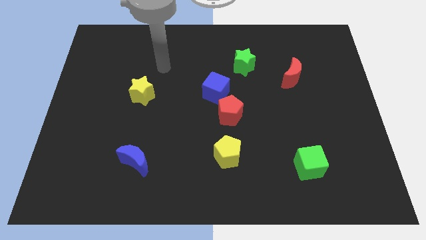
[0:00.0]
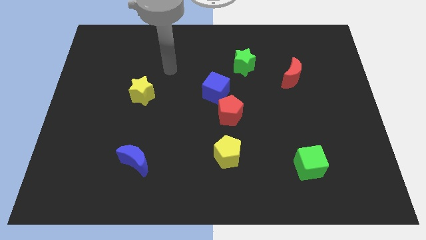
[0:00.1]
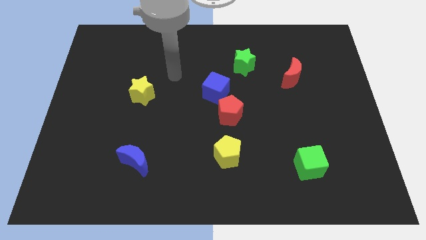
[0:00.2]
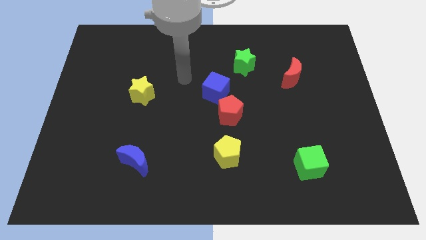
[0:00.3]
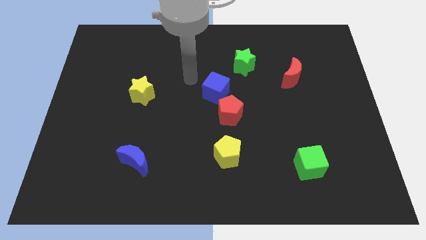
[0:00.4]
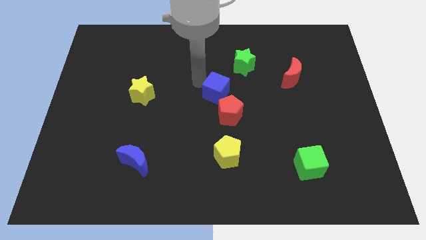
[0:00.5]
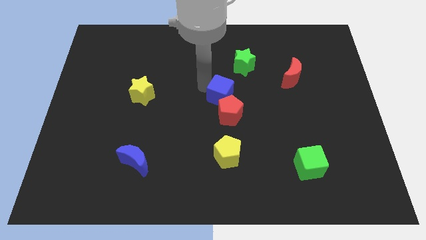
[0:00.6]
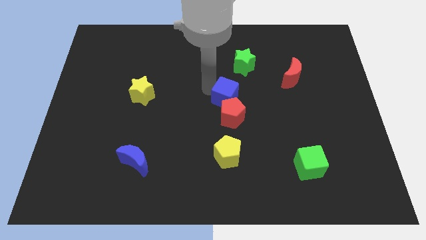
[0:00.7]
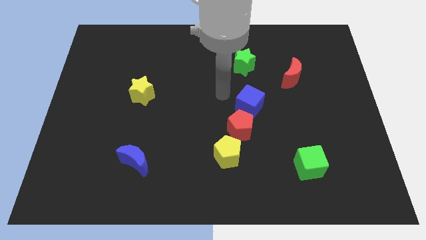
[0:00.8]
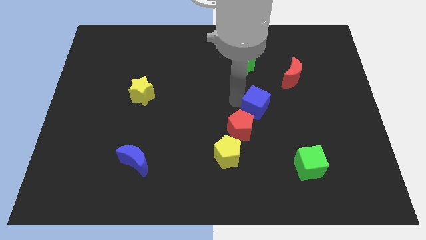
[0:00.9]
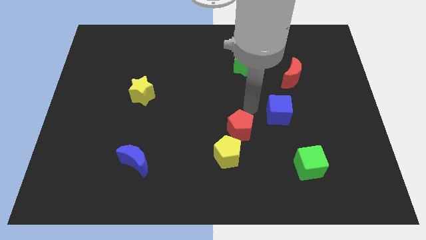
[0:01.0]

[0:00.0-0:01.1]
pull the red pentagon apart from the blue cube

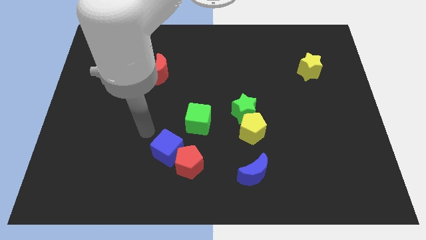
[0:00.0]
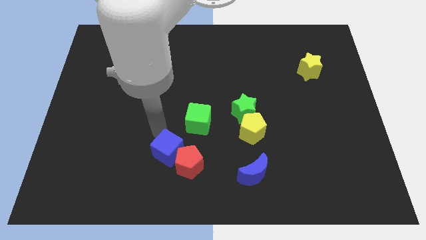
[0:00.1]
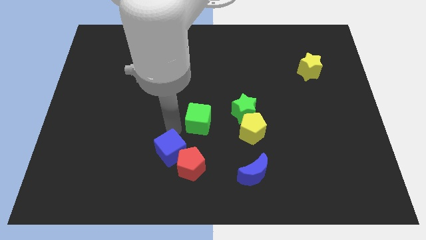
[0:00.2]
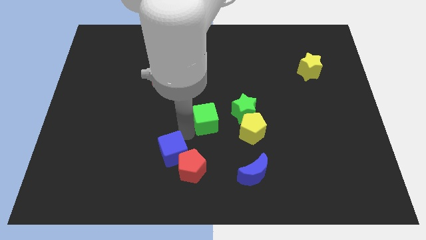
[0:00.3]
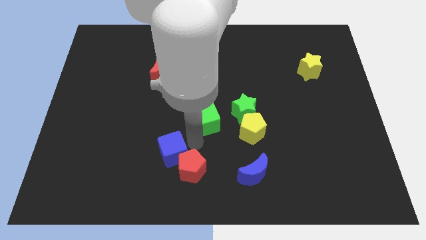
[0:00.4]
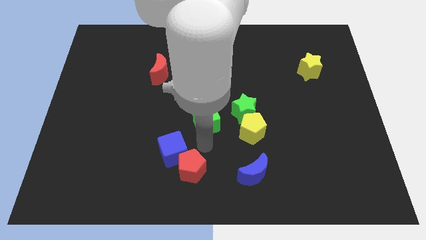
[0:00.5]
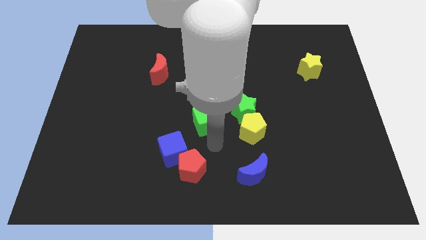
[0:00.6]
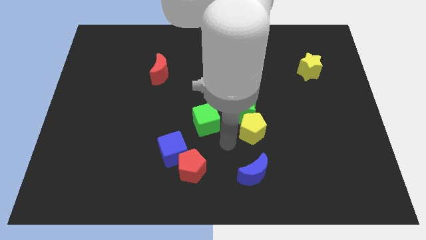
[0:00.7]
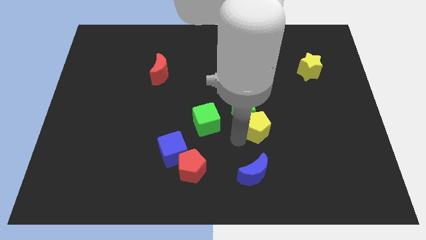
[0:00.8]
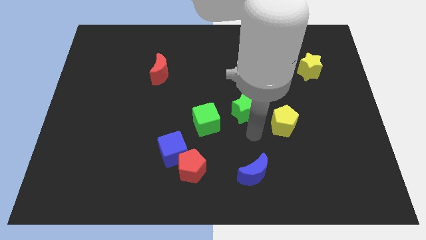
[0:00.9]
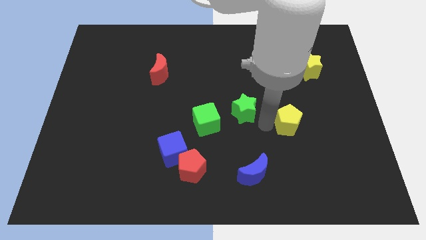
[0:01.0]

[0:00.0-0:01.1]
move the green star away from the yellow pentagon

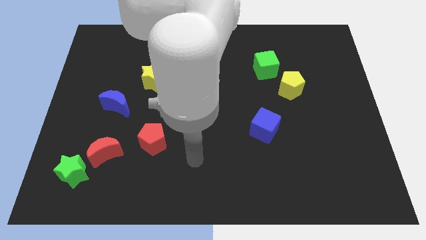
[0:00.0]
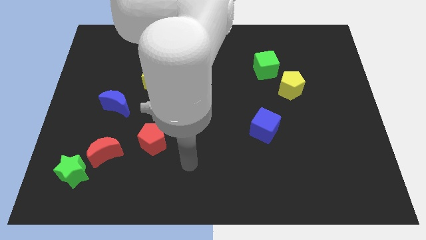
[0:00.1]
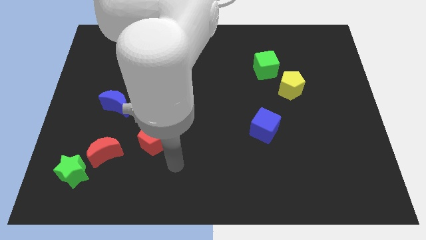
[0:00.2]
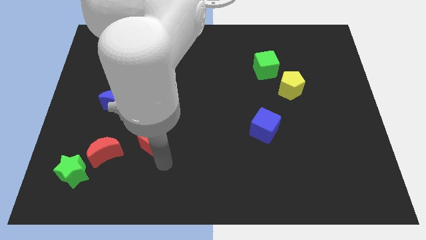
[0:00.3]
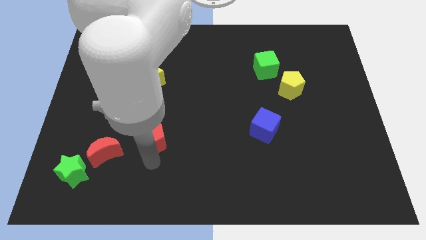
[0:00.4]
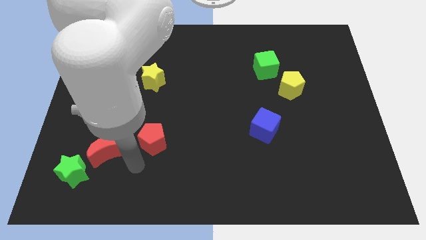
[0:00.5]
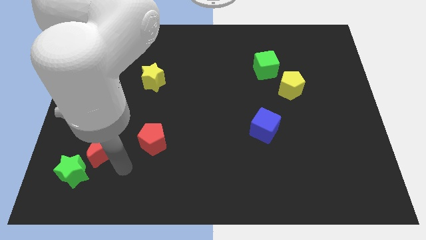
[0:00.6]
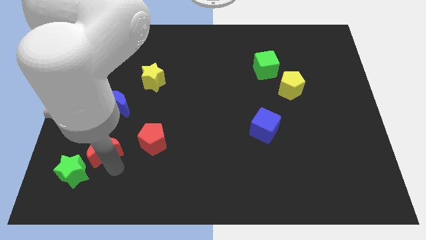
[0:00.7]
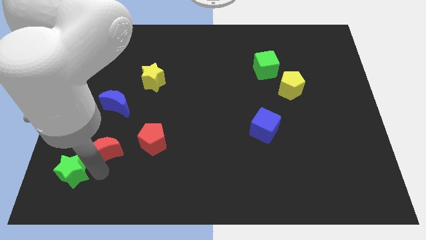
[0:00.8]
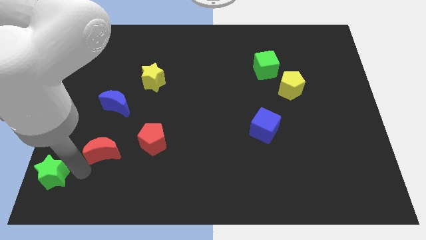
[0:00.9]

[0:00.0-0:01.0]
separate the red moon from the green star

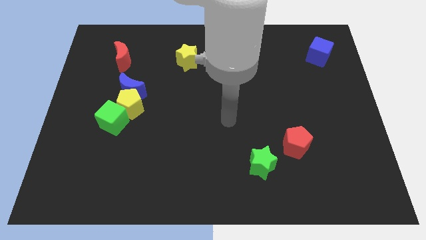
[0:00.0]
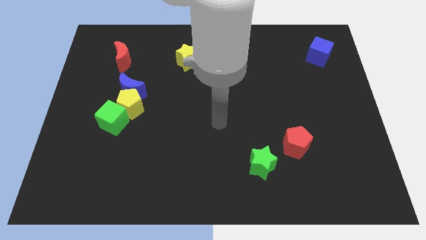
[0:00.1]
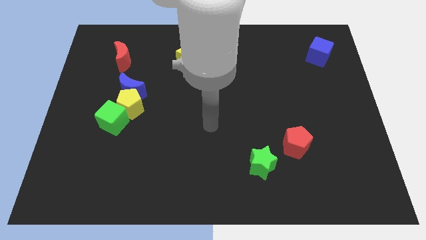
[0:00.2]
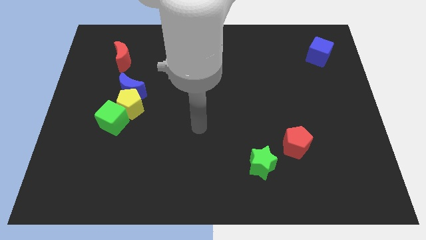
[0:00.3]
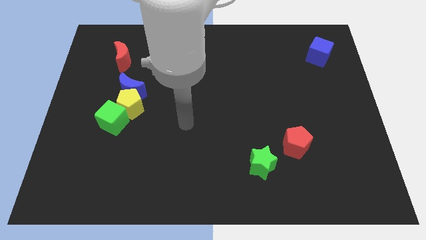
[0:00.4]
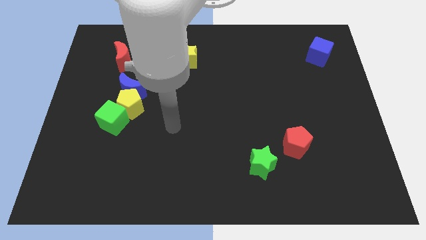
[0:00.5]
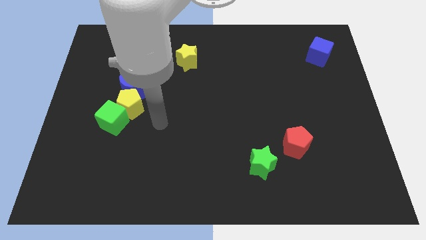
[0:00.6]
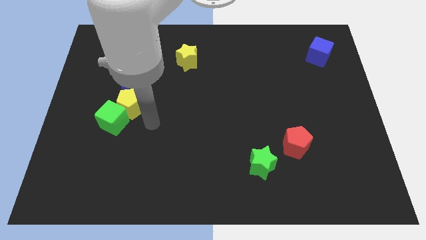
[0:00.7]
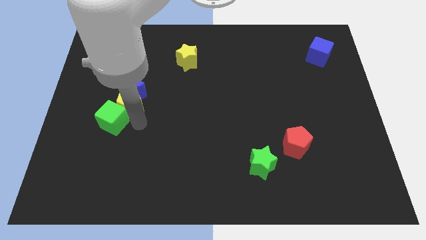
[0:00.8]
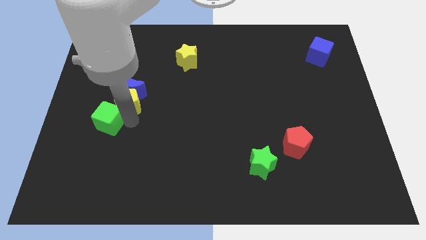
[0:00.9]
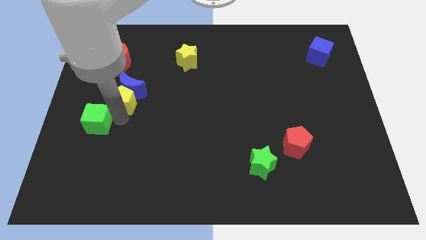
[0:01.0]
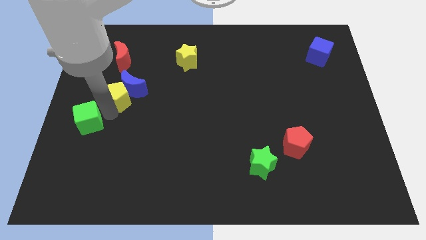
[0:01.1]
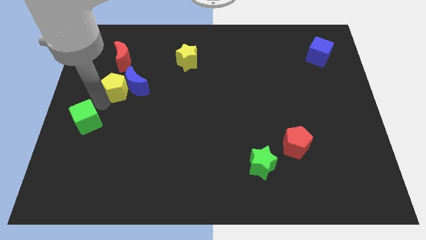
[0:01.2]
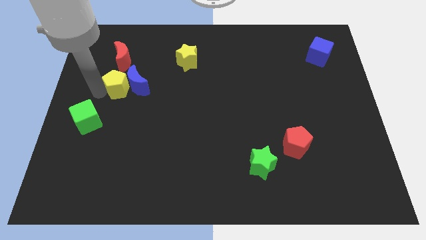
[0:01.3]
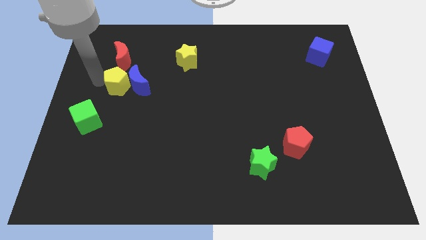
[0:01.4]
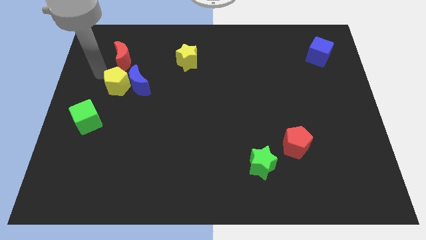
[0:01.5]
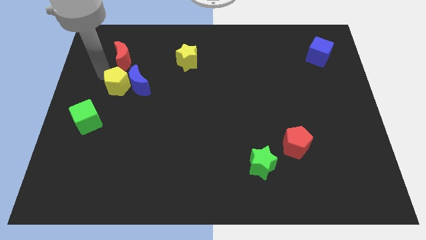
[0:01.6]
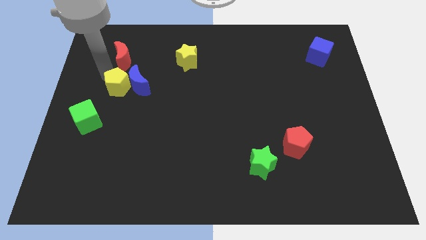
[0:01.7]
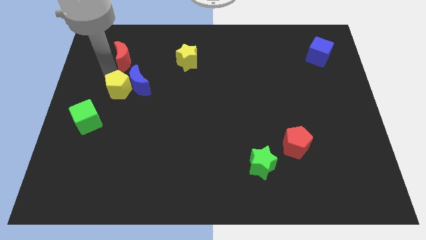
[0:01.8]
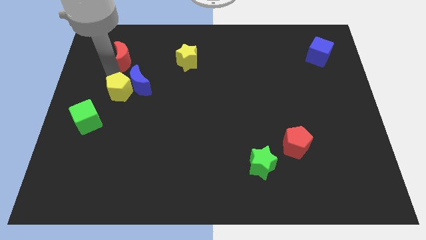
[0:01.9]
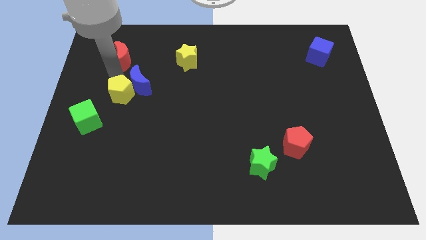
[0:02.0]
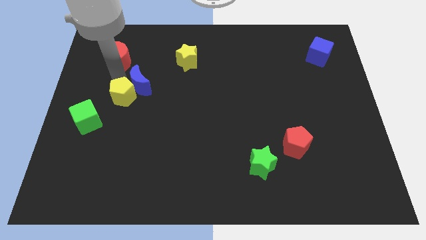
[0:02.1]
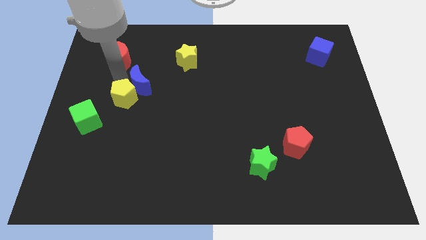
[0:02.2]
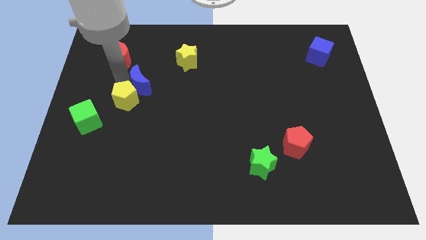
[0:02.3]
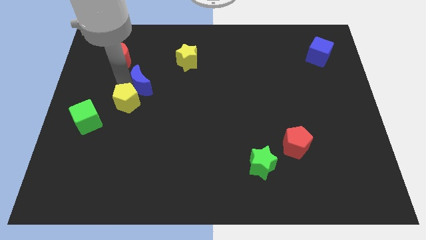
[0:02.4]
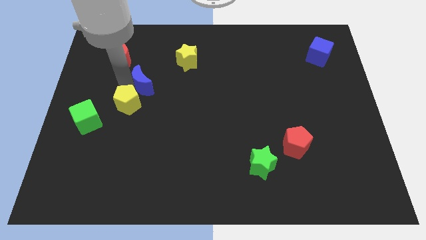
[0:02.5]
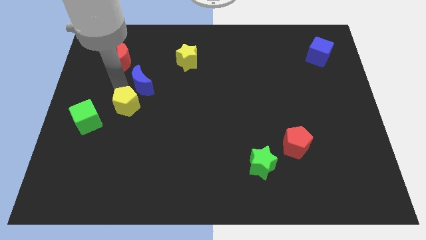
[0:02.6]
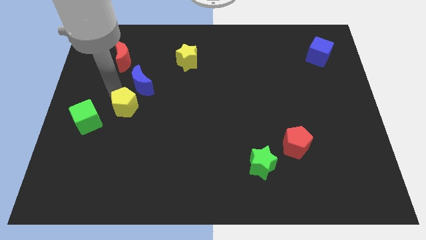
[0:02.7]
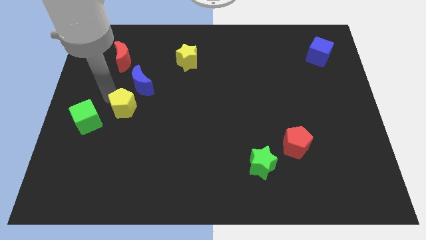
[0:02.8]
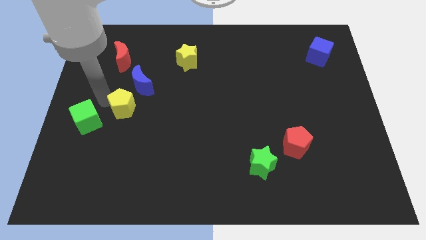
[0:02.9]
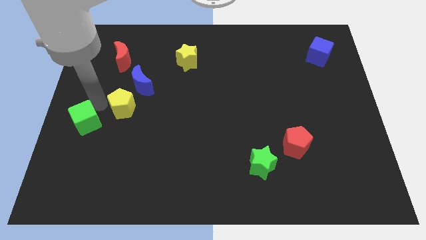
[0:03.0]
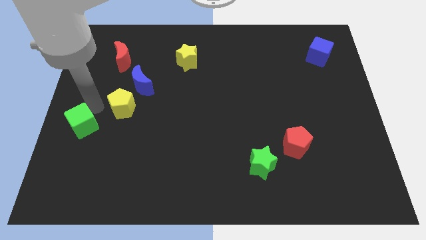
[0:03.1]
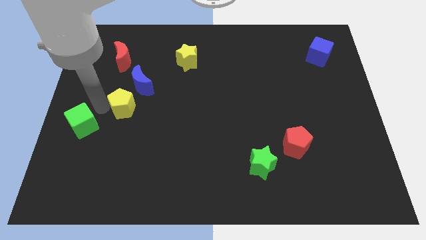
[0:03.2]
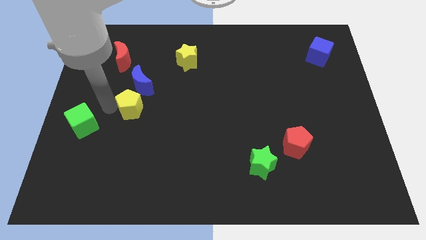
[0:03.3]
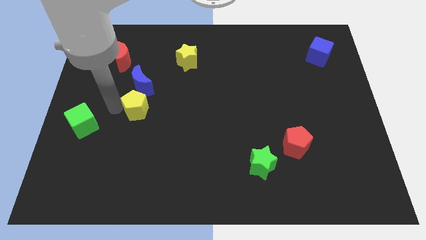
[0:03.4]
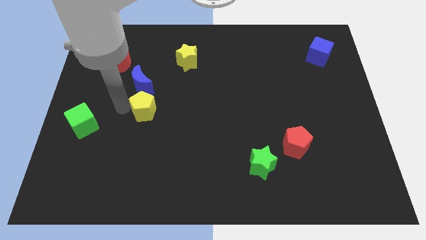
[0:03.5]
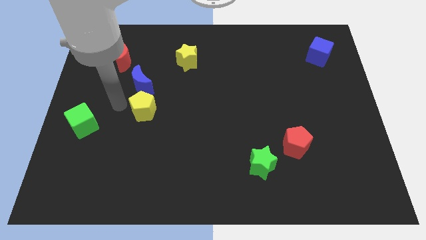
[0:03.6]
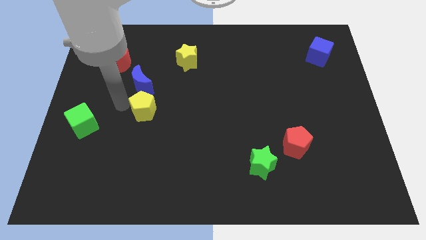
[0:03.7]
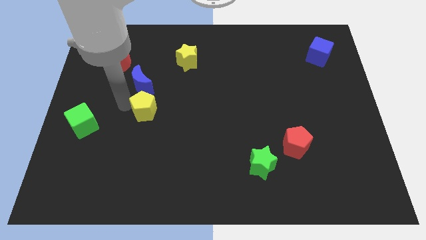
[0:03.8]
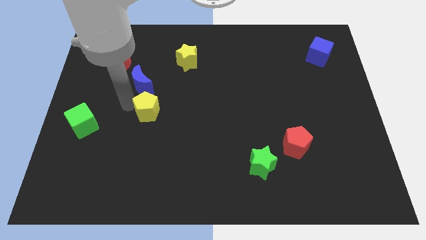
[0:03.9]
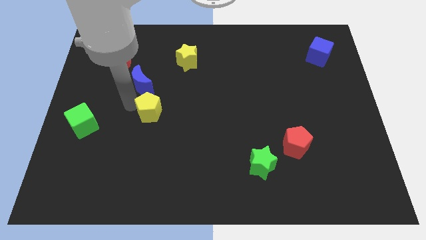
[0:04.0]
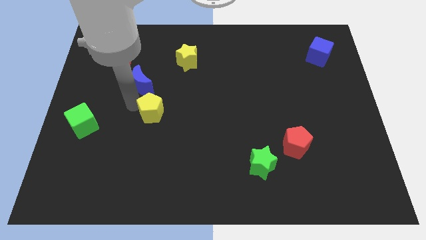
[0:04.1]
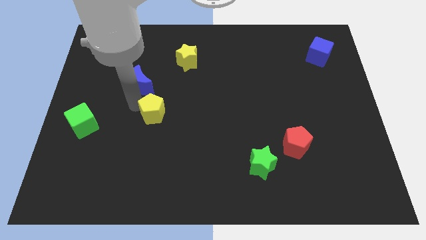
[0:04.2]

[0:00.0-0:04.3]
move the yellow pentagon away from the blue moon and green cube

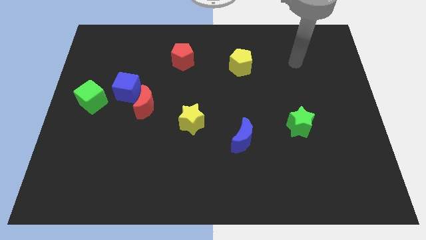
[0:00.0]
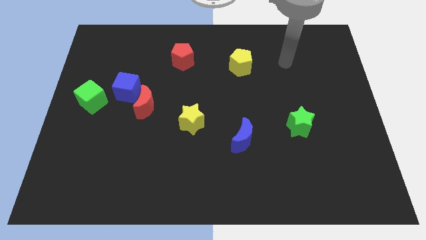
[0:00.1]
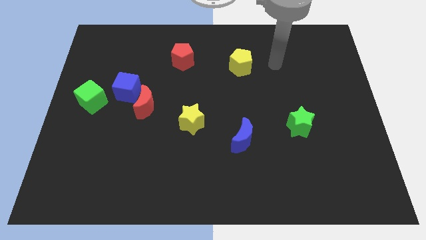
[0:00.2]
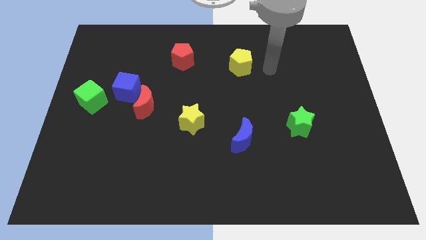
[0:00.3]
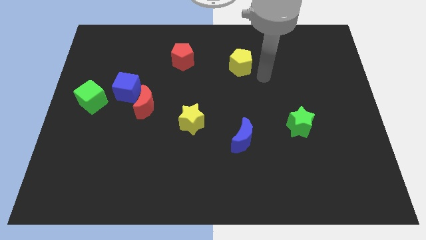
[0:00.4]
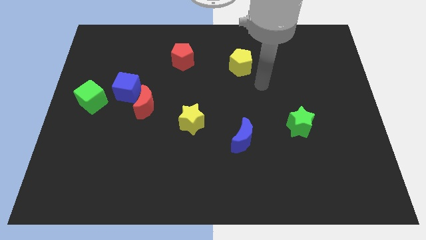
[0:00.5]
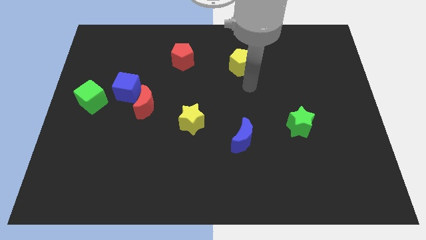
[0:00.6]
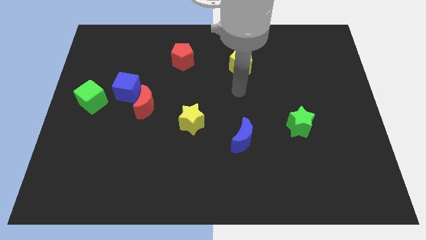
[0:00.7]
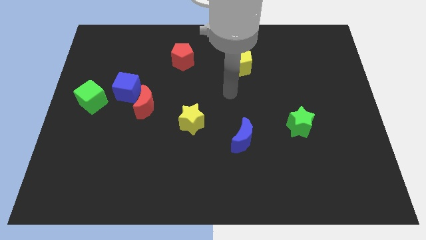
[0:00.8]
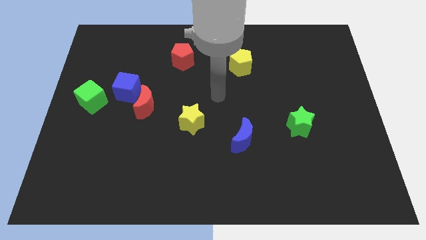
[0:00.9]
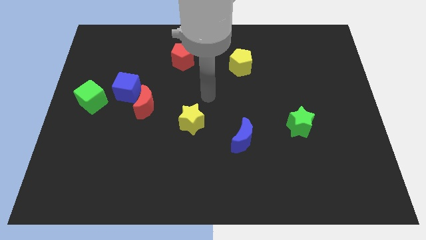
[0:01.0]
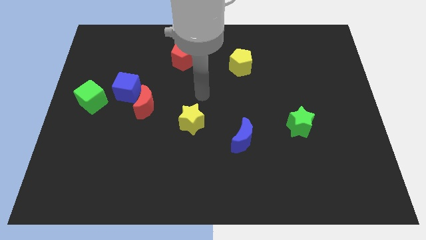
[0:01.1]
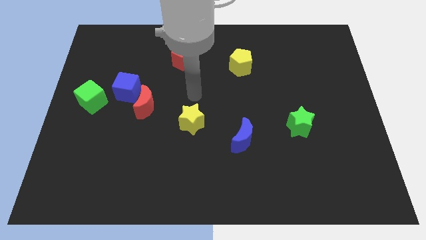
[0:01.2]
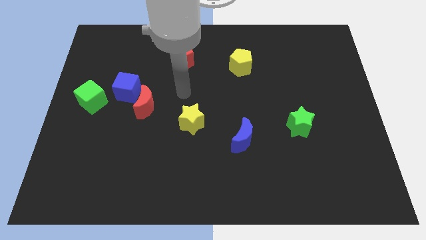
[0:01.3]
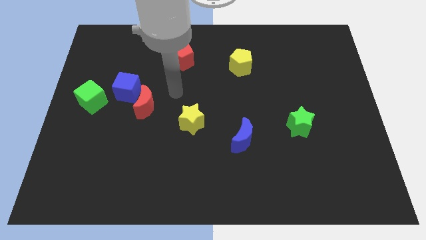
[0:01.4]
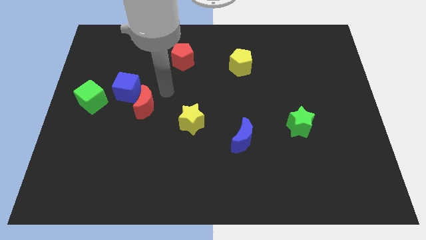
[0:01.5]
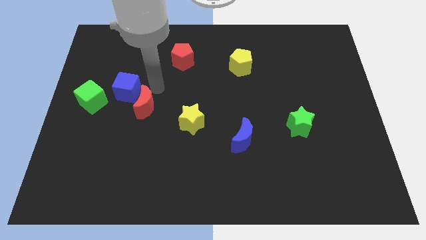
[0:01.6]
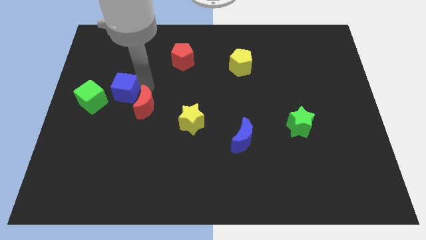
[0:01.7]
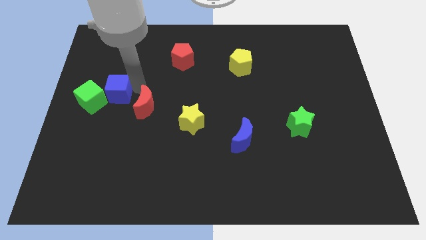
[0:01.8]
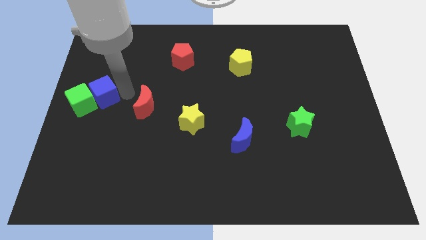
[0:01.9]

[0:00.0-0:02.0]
separate the red moon from the blue cube
